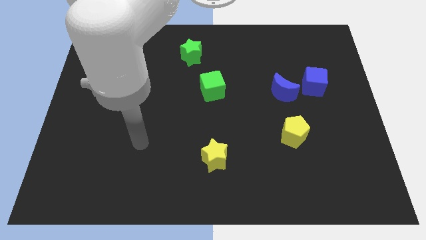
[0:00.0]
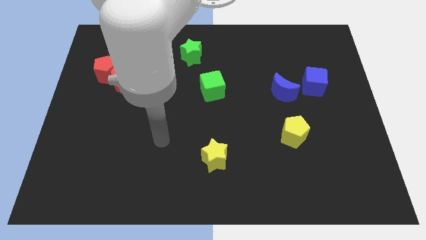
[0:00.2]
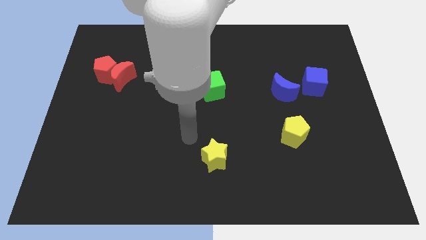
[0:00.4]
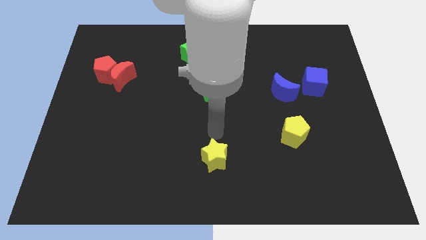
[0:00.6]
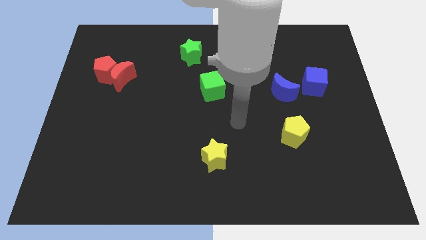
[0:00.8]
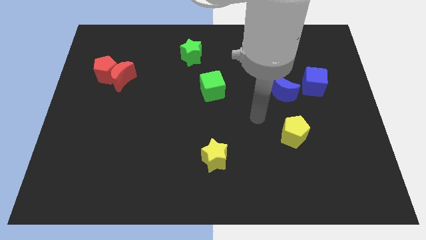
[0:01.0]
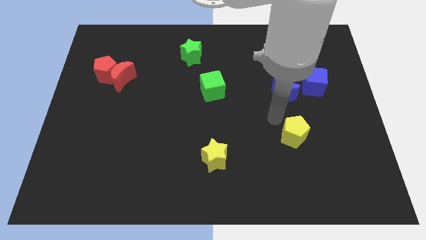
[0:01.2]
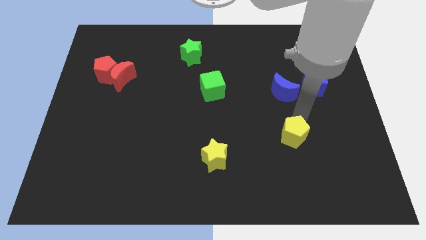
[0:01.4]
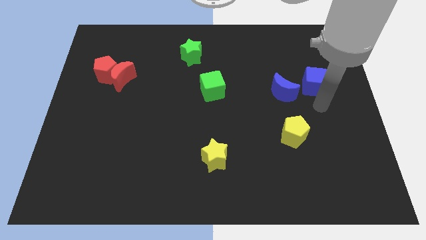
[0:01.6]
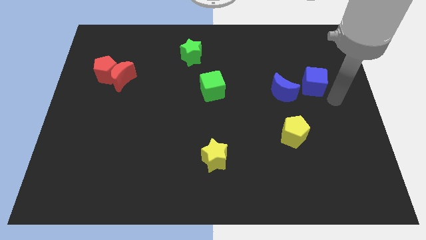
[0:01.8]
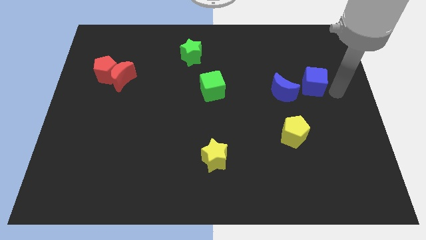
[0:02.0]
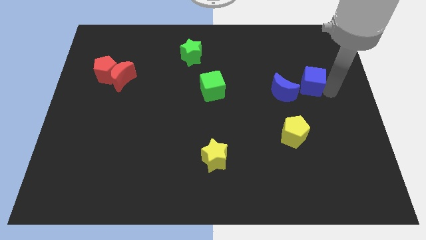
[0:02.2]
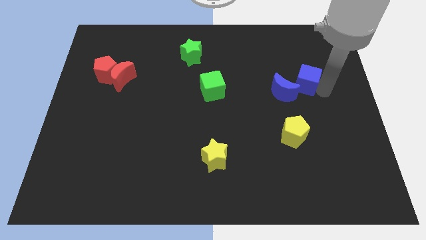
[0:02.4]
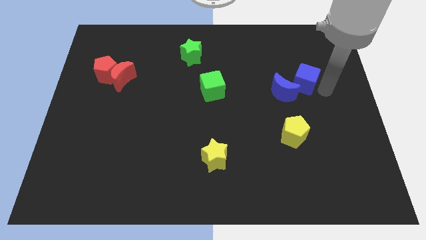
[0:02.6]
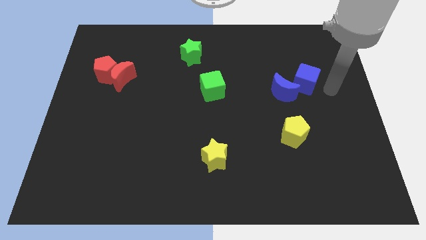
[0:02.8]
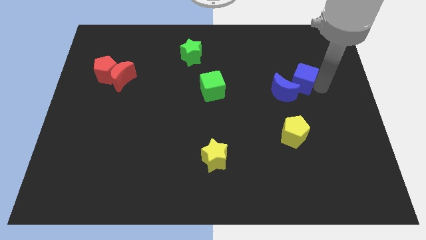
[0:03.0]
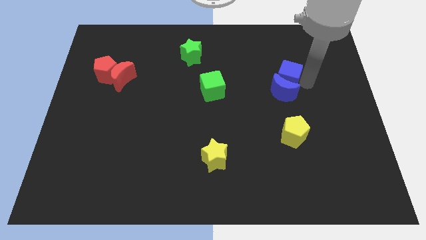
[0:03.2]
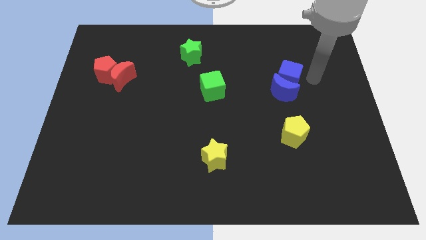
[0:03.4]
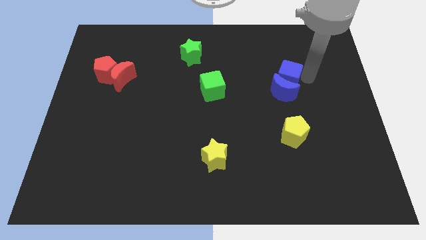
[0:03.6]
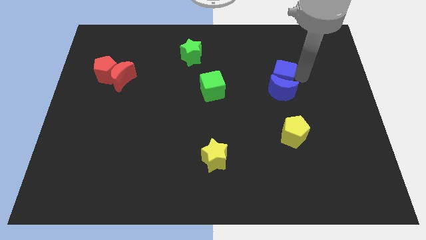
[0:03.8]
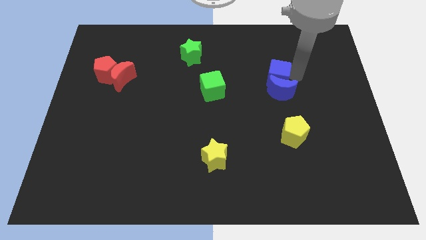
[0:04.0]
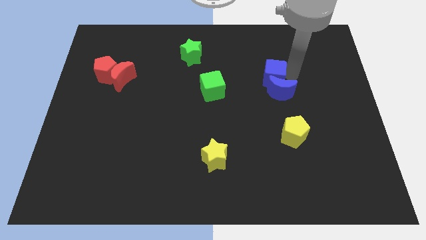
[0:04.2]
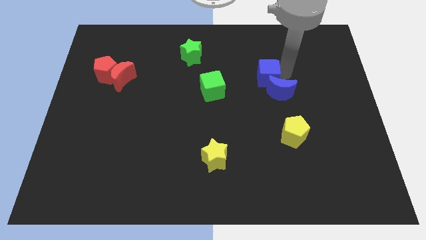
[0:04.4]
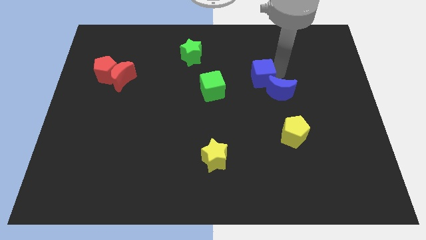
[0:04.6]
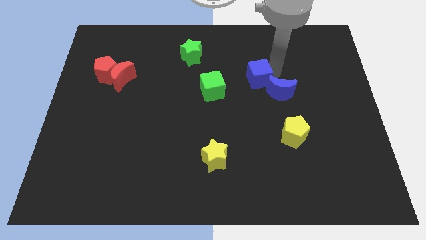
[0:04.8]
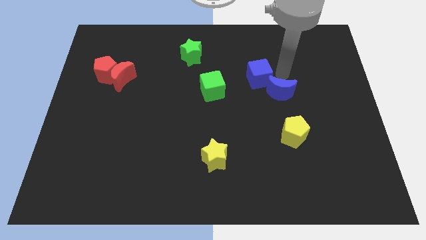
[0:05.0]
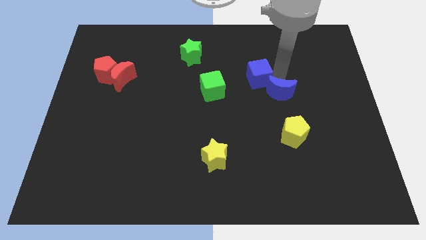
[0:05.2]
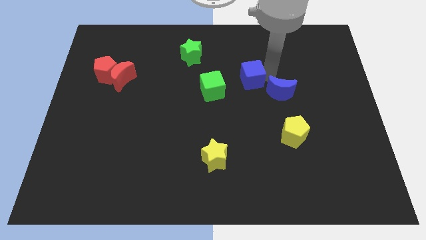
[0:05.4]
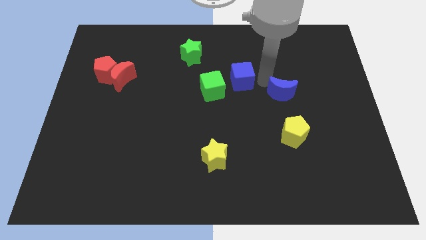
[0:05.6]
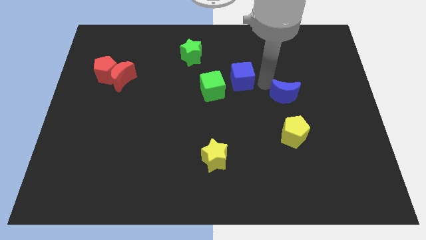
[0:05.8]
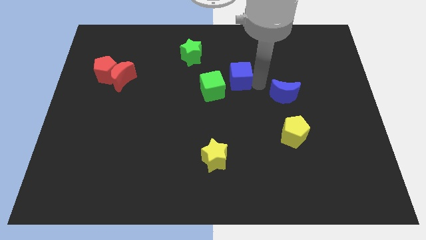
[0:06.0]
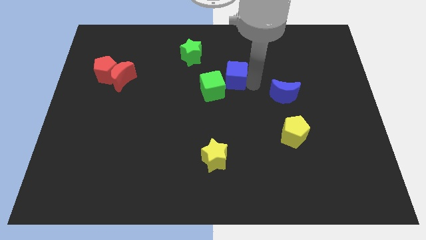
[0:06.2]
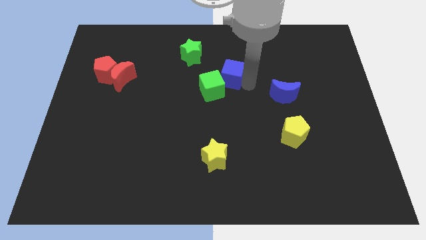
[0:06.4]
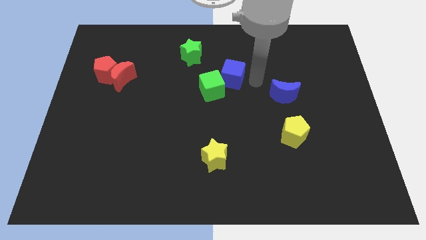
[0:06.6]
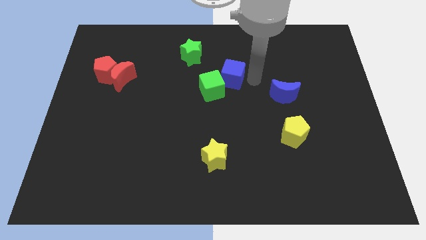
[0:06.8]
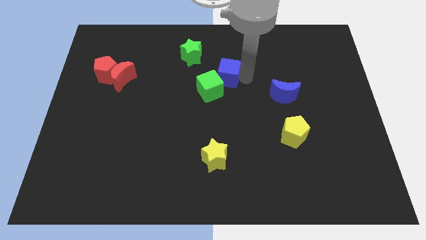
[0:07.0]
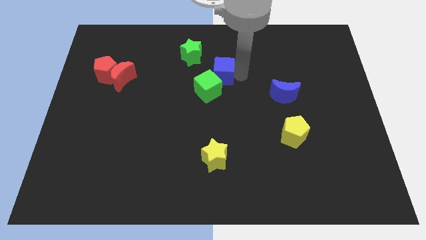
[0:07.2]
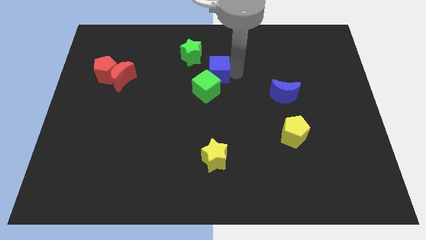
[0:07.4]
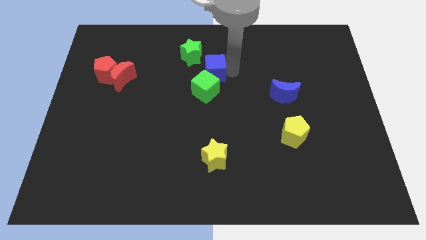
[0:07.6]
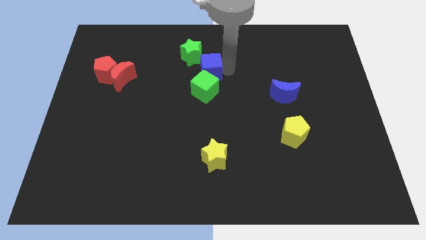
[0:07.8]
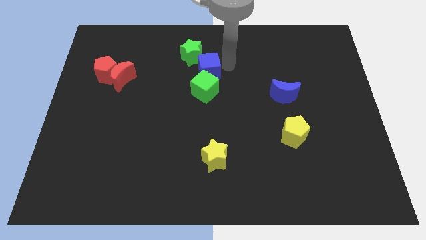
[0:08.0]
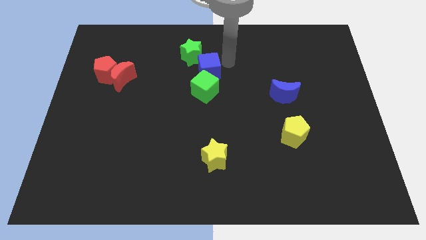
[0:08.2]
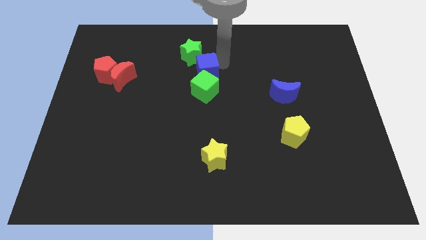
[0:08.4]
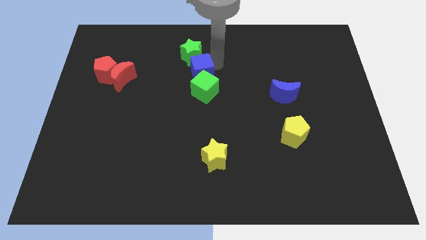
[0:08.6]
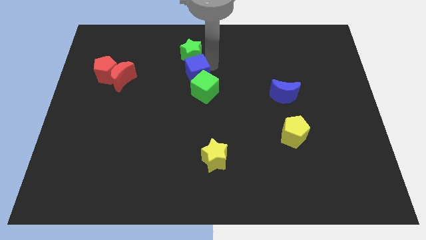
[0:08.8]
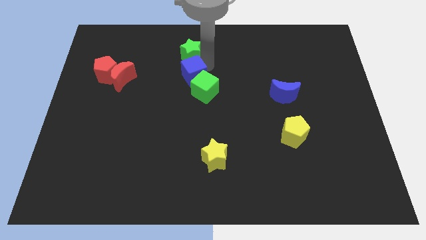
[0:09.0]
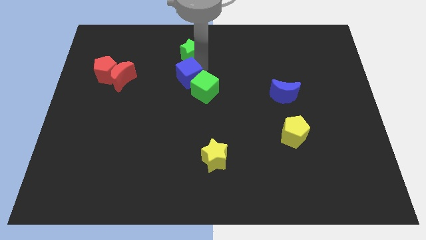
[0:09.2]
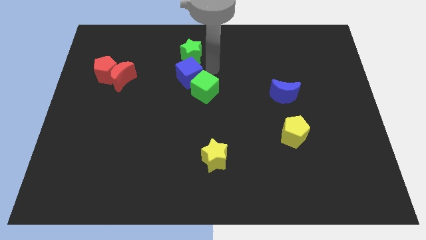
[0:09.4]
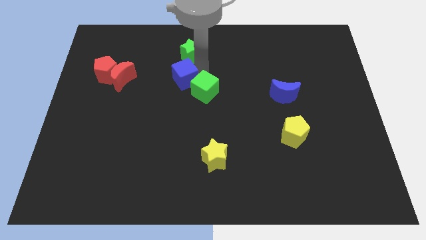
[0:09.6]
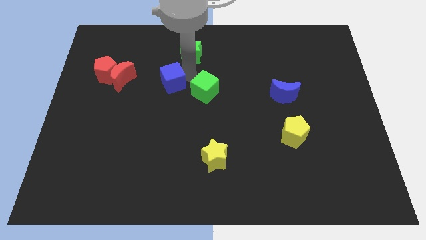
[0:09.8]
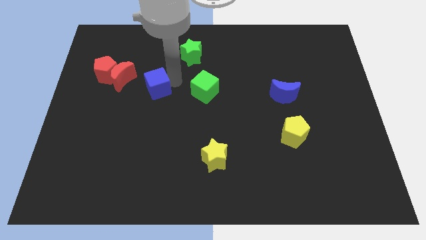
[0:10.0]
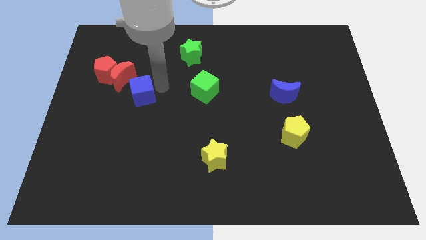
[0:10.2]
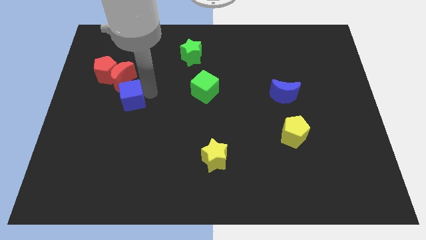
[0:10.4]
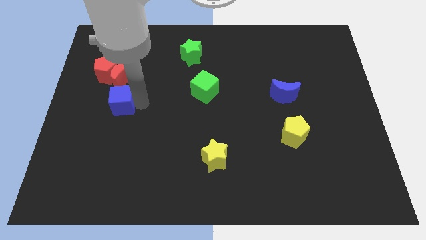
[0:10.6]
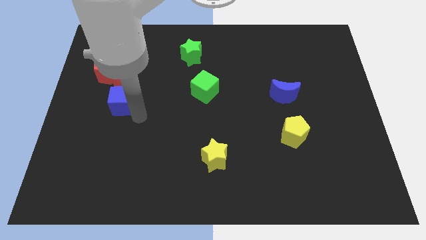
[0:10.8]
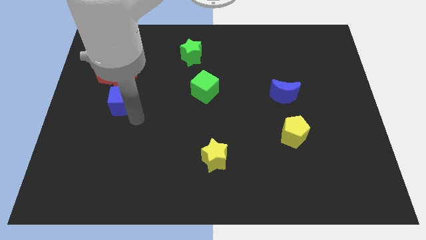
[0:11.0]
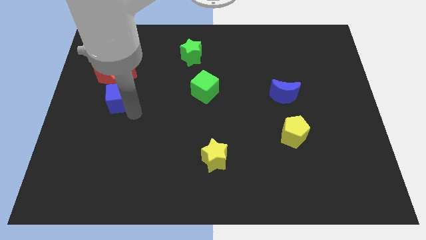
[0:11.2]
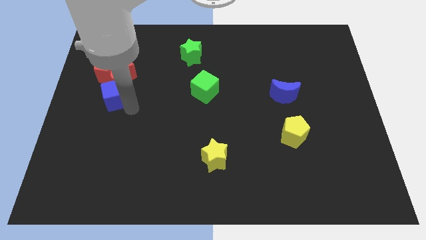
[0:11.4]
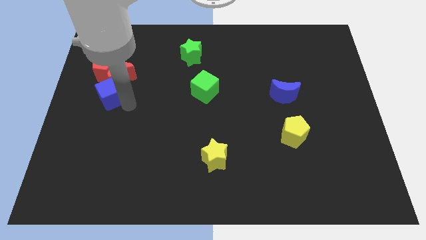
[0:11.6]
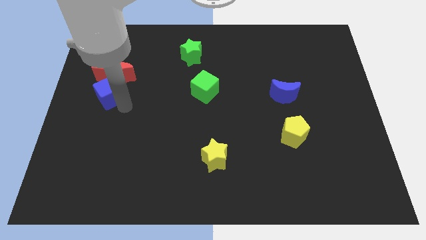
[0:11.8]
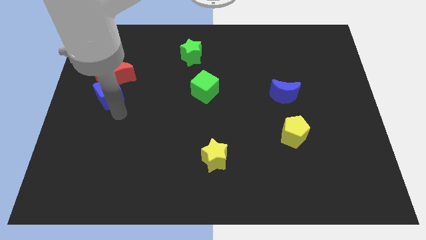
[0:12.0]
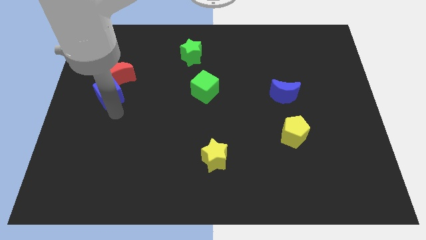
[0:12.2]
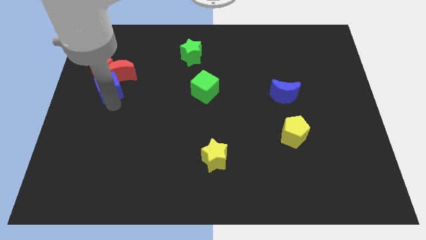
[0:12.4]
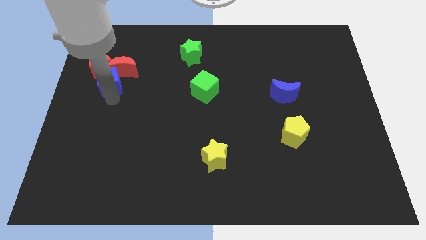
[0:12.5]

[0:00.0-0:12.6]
push the blue cube close to the red pentagon

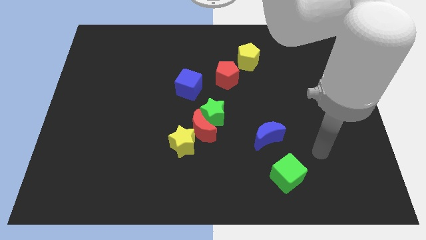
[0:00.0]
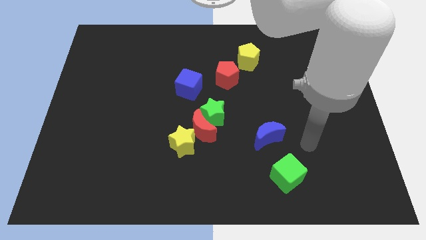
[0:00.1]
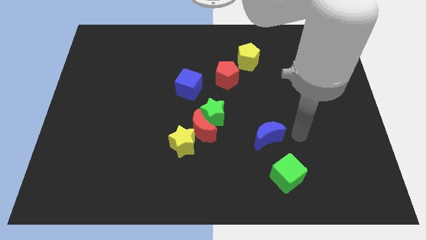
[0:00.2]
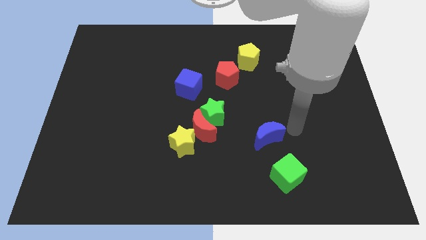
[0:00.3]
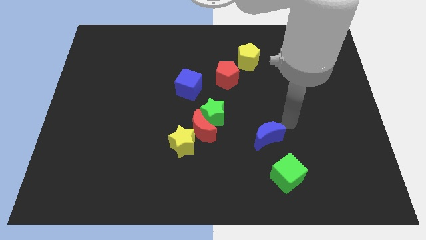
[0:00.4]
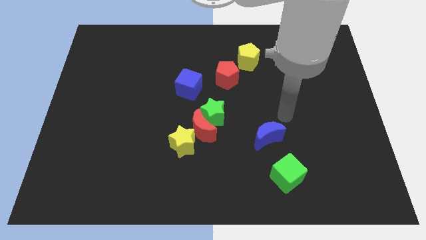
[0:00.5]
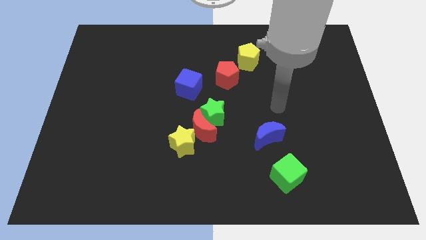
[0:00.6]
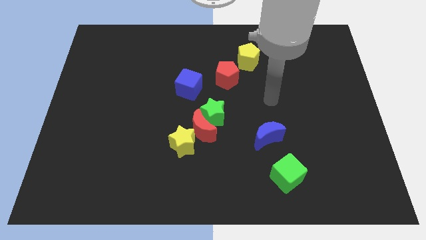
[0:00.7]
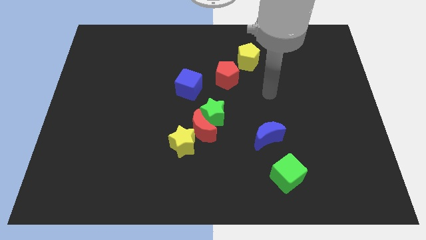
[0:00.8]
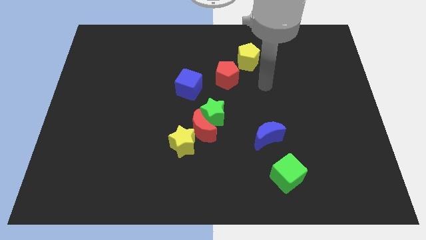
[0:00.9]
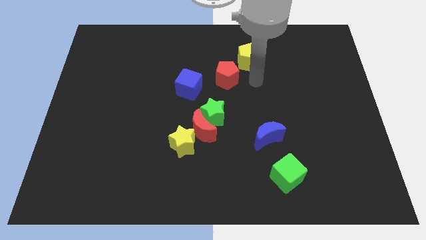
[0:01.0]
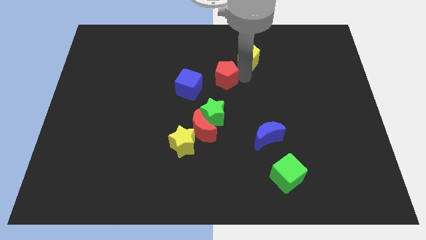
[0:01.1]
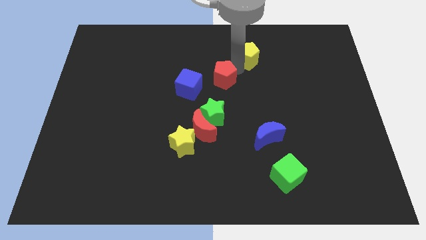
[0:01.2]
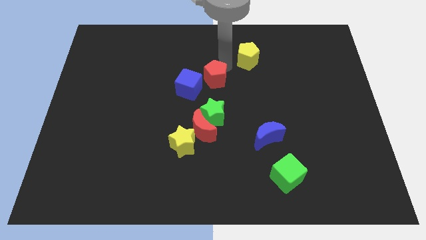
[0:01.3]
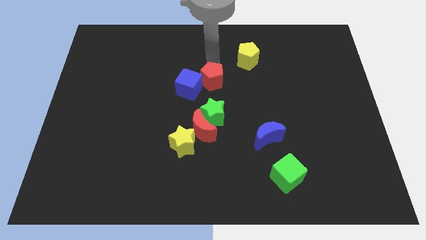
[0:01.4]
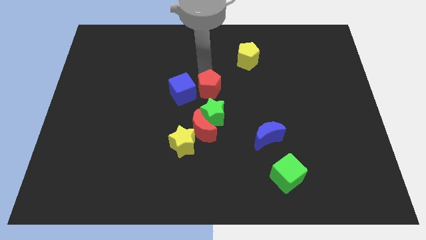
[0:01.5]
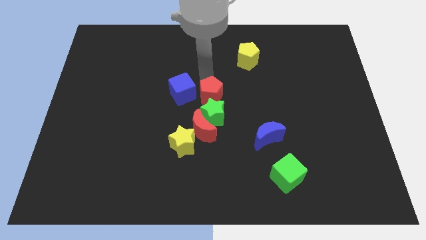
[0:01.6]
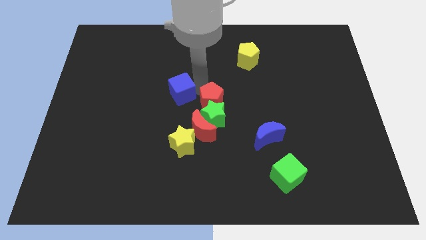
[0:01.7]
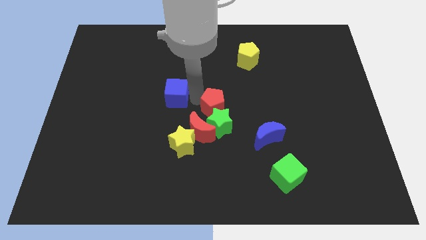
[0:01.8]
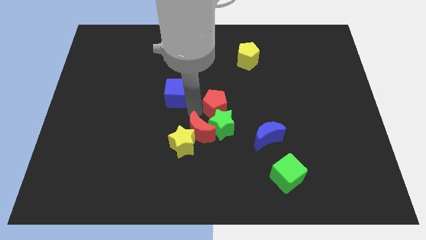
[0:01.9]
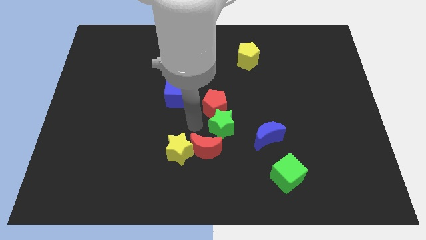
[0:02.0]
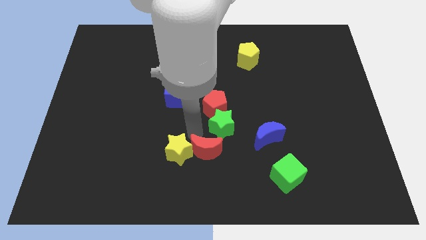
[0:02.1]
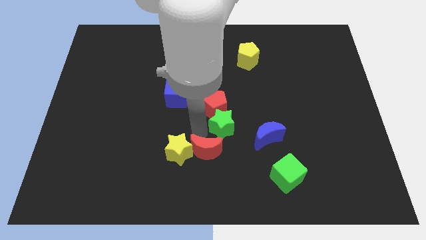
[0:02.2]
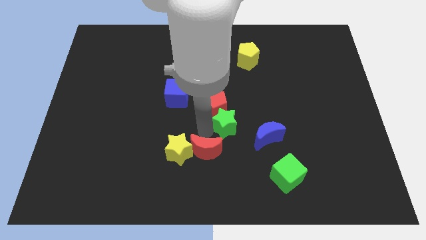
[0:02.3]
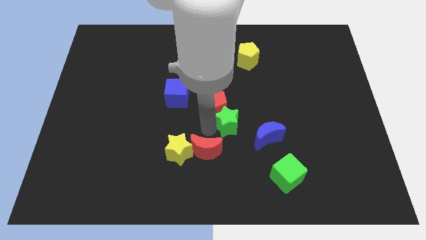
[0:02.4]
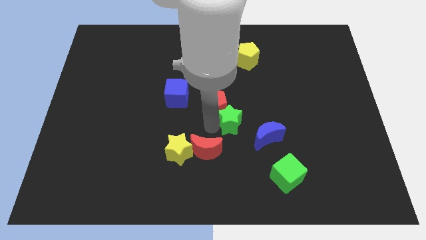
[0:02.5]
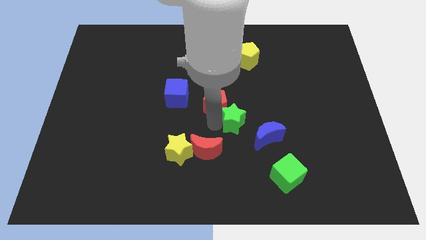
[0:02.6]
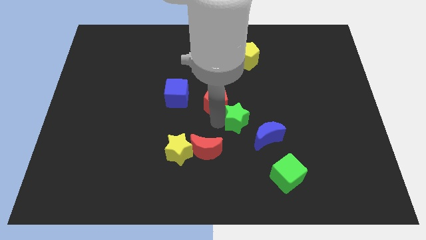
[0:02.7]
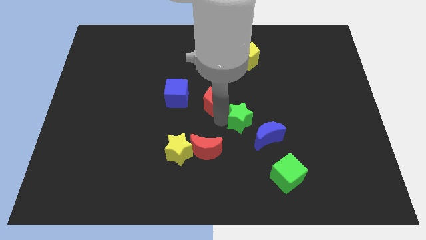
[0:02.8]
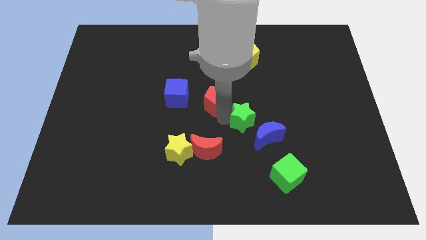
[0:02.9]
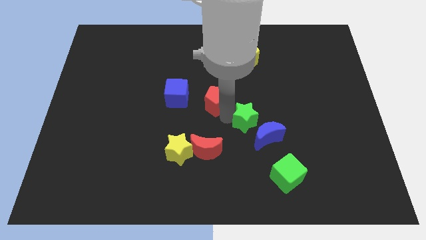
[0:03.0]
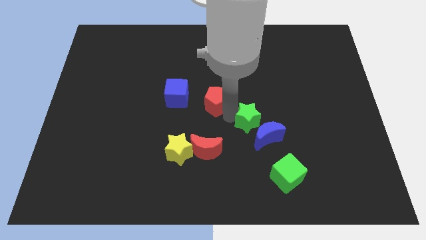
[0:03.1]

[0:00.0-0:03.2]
push the green star towards the blue moon
